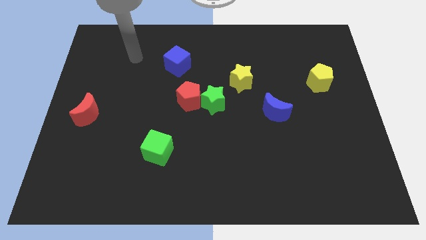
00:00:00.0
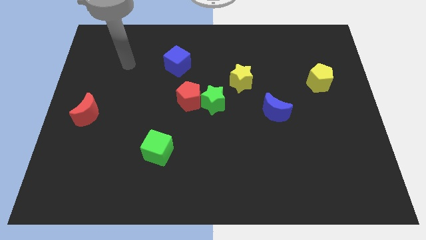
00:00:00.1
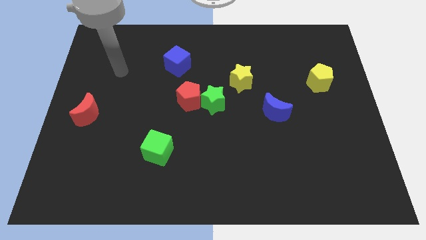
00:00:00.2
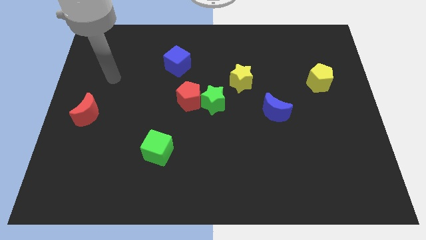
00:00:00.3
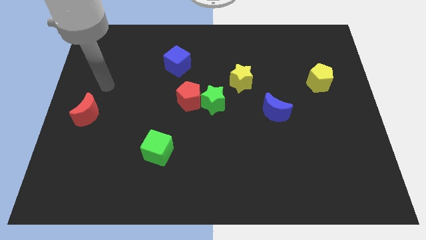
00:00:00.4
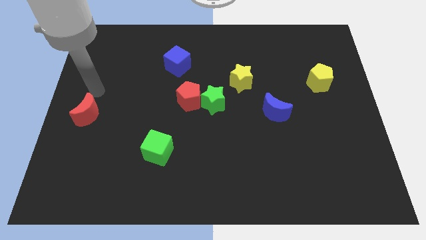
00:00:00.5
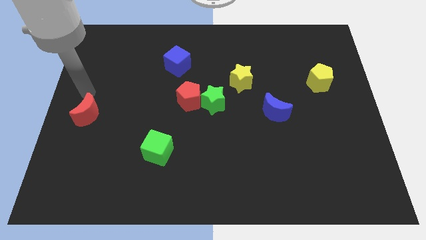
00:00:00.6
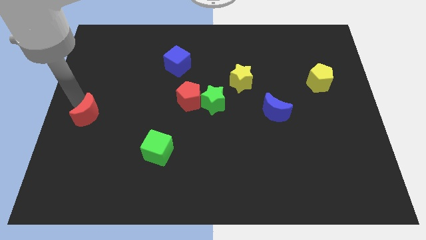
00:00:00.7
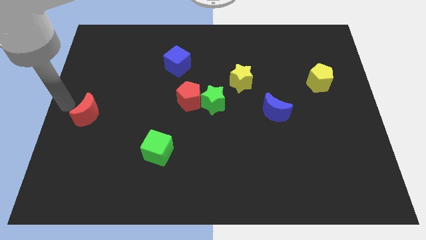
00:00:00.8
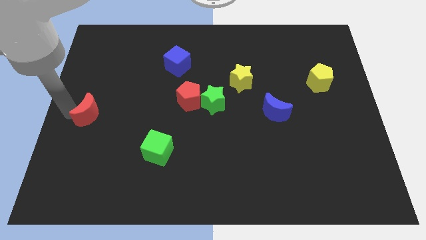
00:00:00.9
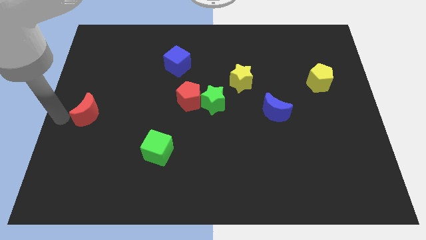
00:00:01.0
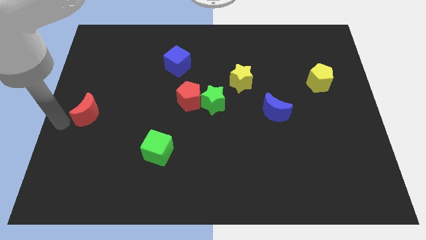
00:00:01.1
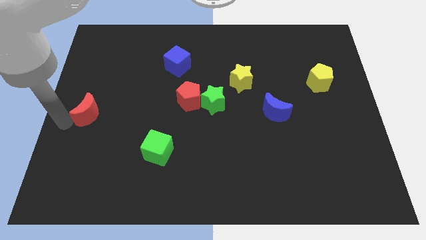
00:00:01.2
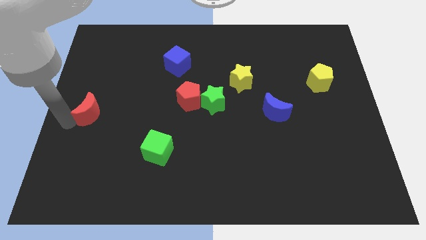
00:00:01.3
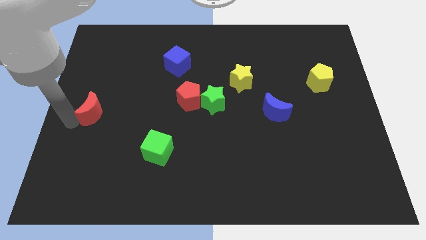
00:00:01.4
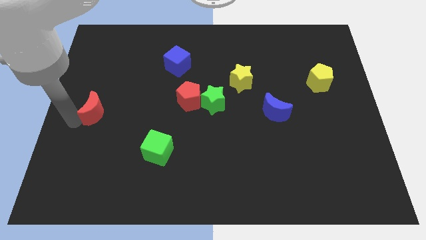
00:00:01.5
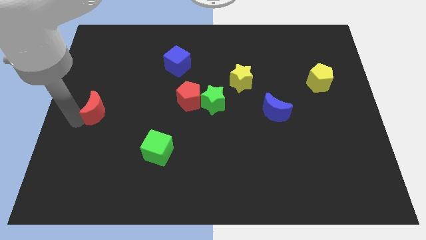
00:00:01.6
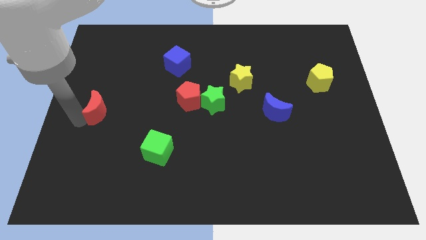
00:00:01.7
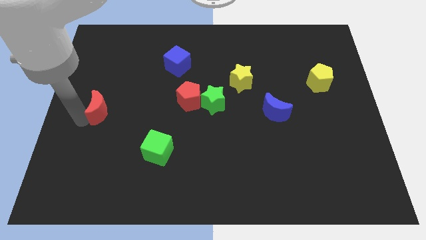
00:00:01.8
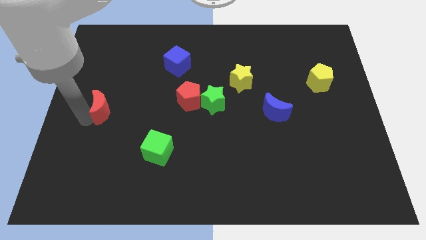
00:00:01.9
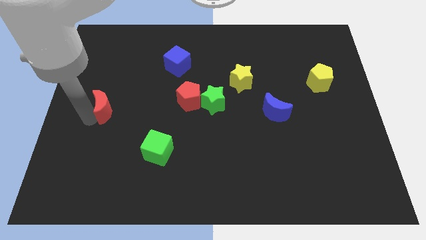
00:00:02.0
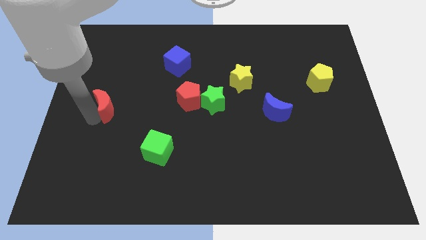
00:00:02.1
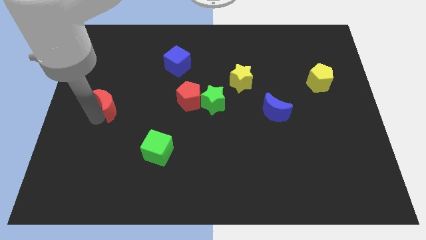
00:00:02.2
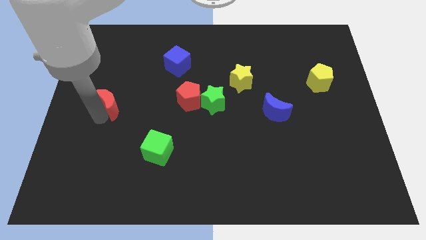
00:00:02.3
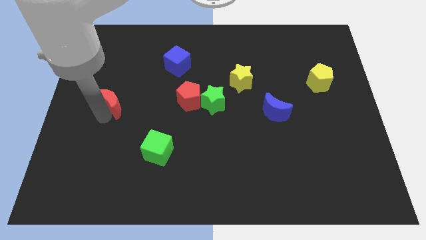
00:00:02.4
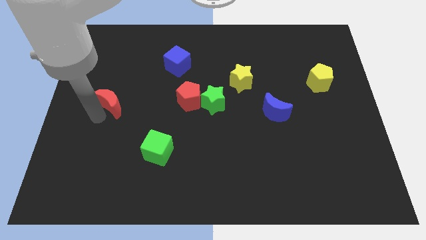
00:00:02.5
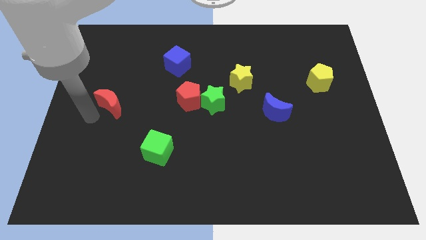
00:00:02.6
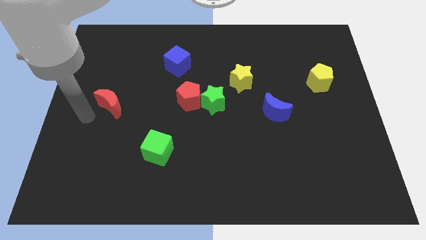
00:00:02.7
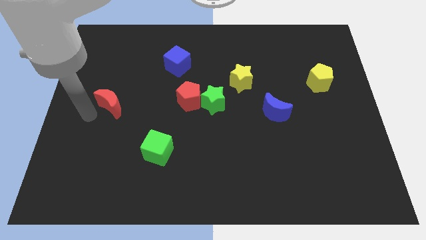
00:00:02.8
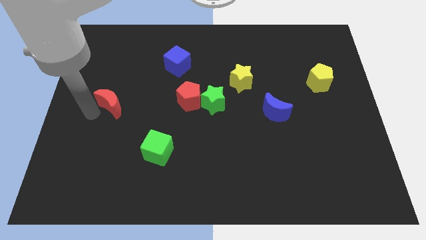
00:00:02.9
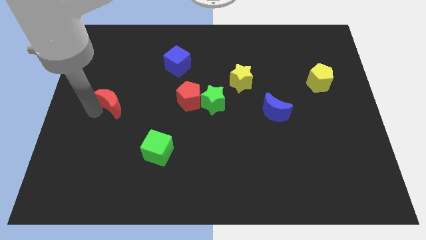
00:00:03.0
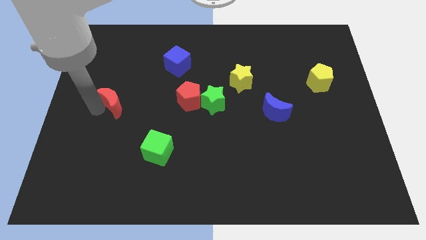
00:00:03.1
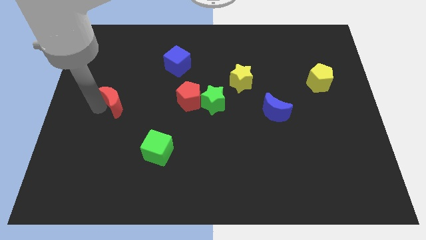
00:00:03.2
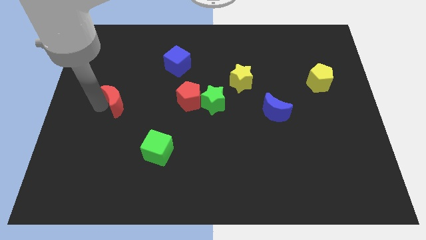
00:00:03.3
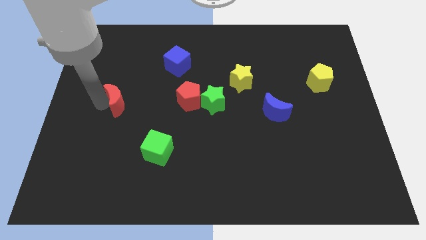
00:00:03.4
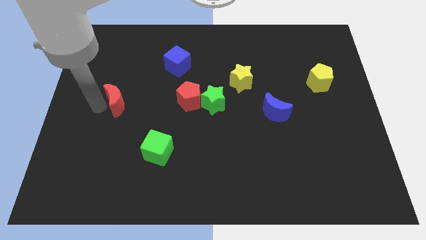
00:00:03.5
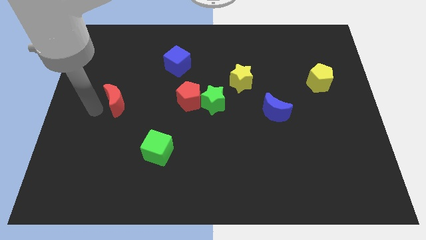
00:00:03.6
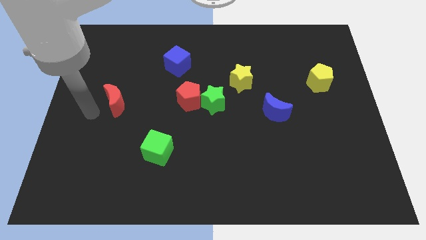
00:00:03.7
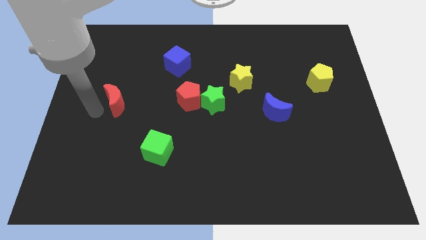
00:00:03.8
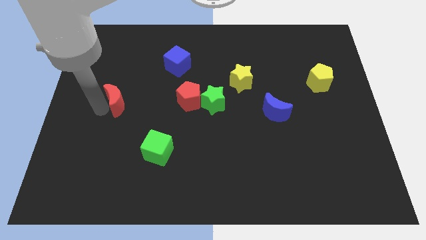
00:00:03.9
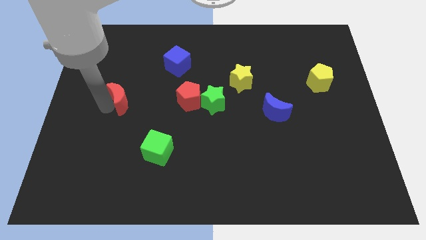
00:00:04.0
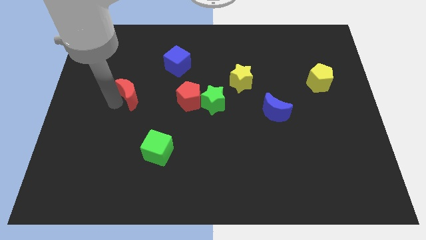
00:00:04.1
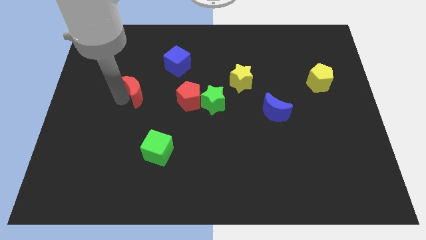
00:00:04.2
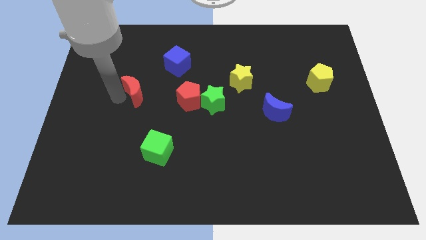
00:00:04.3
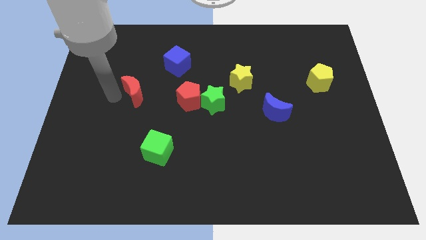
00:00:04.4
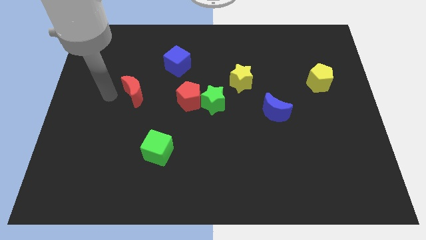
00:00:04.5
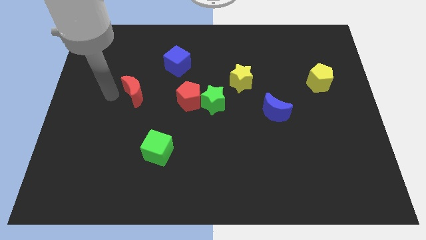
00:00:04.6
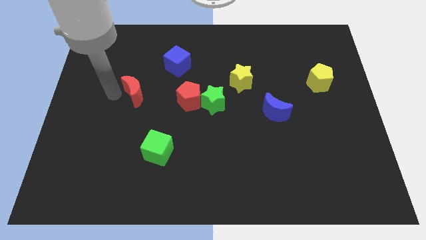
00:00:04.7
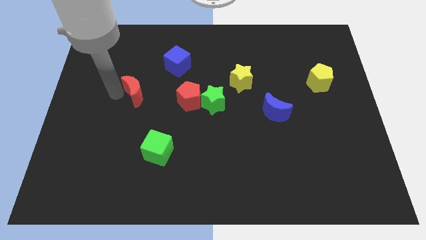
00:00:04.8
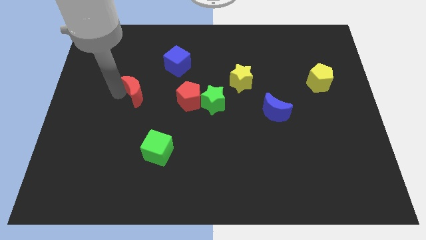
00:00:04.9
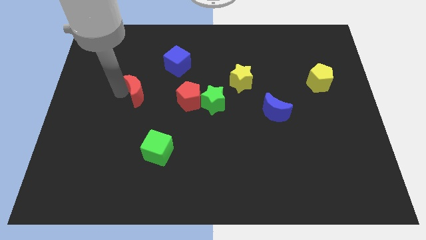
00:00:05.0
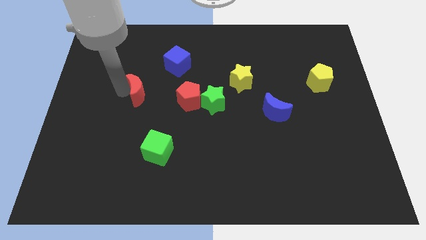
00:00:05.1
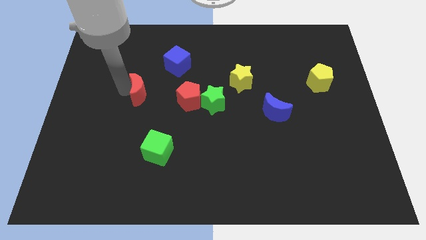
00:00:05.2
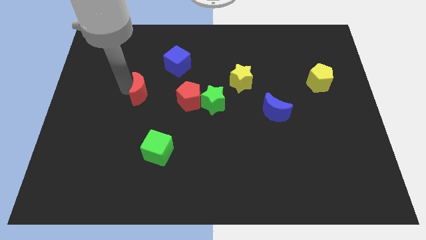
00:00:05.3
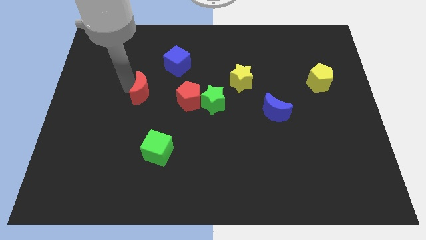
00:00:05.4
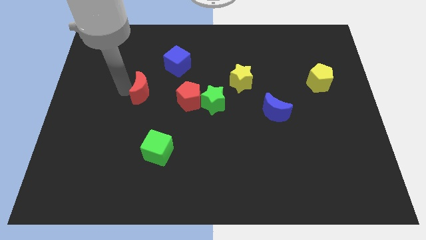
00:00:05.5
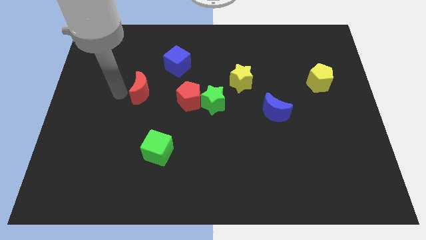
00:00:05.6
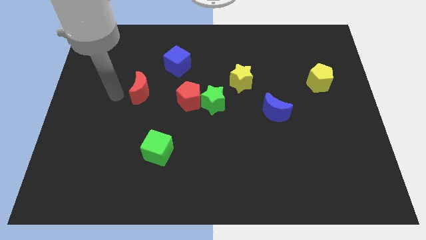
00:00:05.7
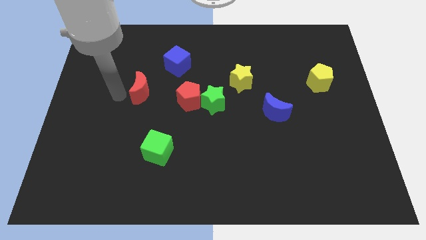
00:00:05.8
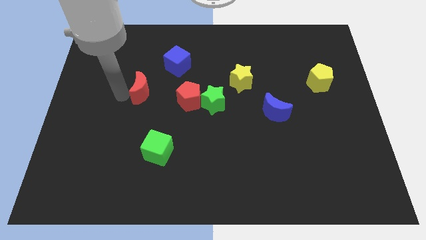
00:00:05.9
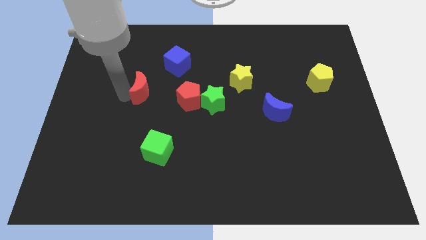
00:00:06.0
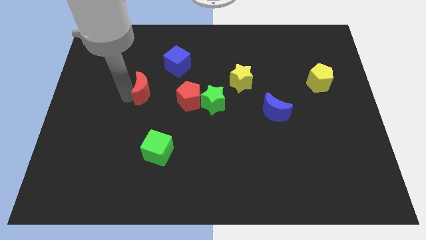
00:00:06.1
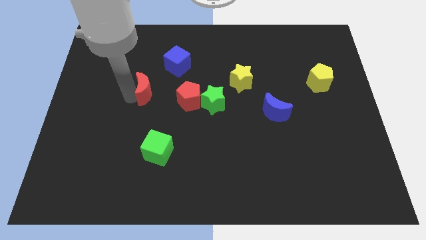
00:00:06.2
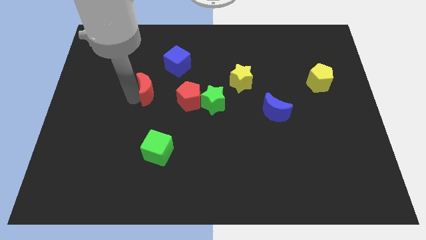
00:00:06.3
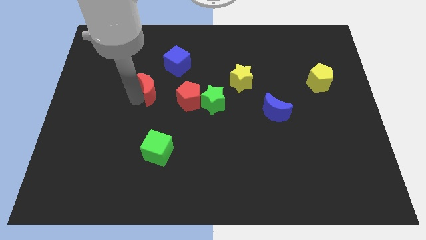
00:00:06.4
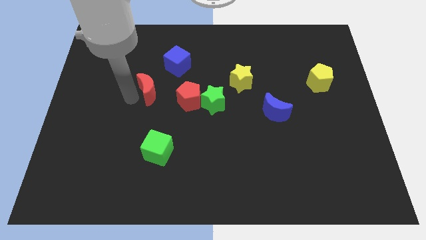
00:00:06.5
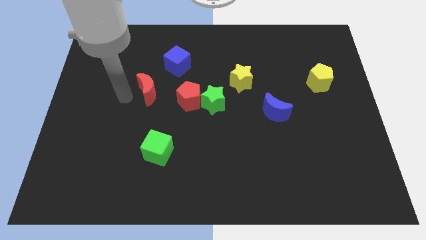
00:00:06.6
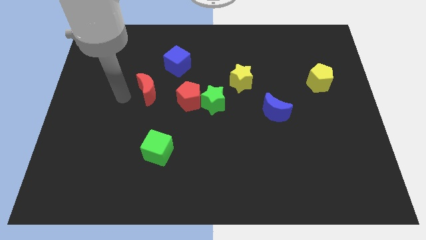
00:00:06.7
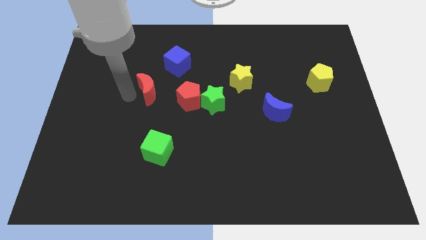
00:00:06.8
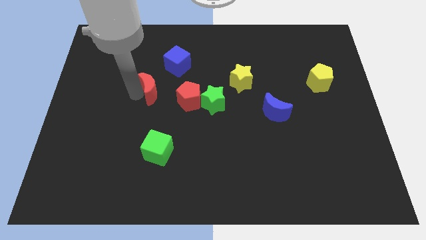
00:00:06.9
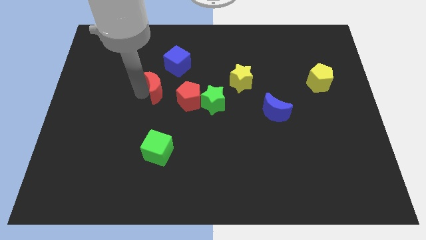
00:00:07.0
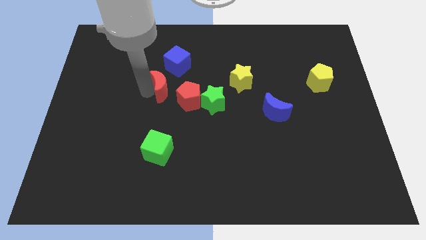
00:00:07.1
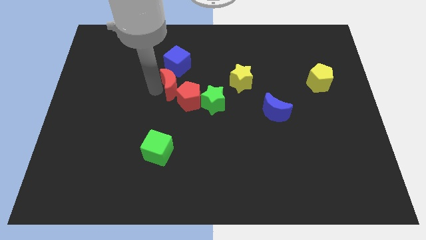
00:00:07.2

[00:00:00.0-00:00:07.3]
slide the red moon to the top left side of the green star
